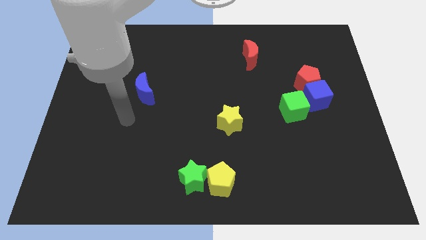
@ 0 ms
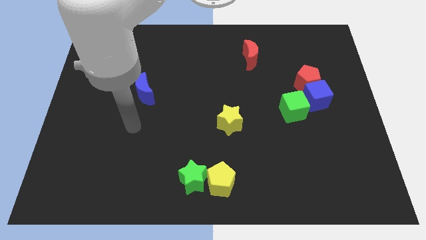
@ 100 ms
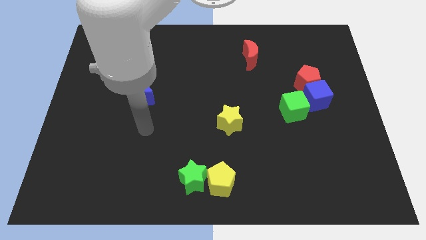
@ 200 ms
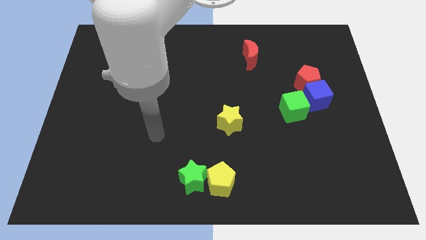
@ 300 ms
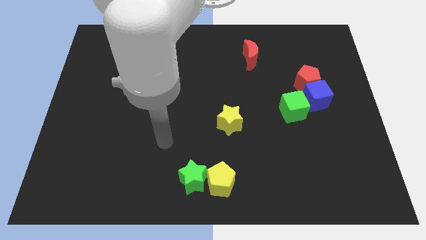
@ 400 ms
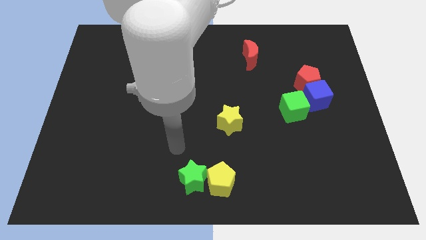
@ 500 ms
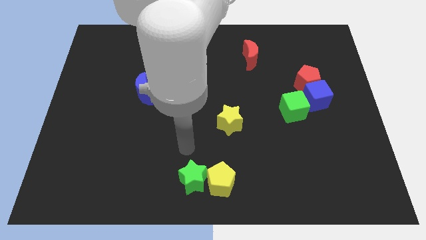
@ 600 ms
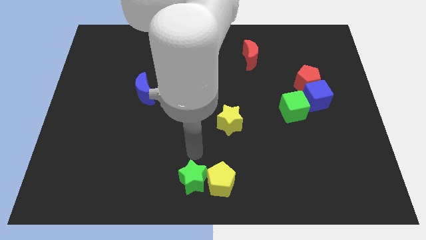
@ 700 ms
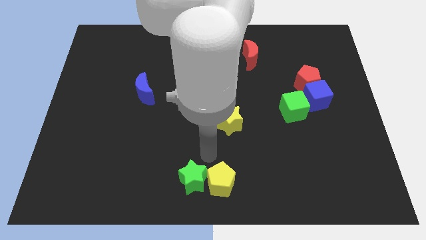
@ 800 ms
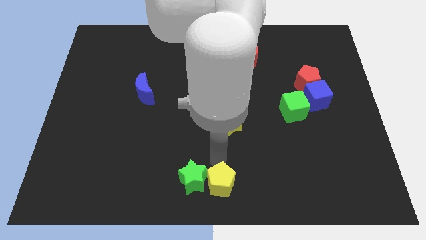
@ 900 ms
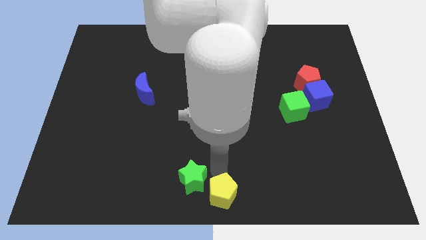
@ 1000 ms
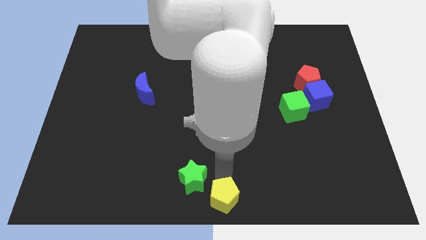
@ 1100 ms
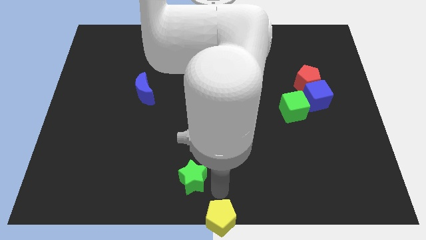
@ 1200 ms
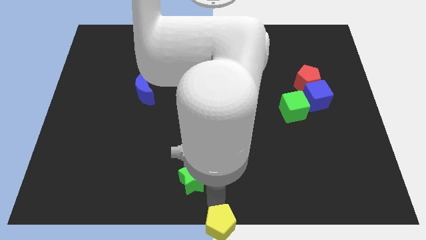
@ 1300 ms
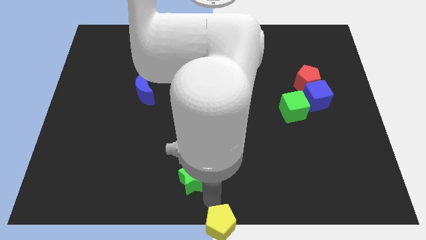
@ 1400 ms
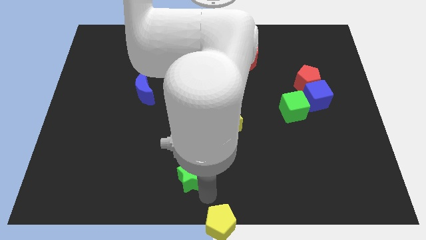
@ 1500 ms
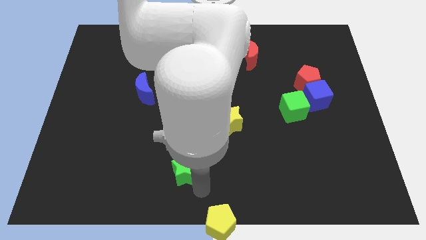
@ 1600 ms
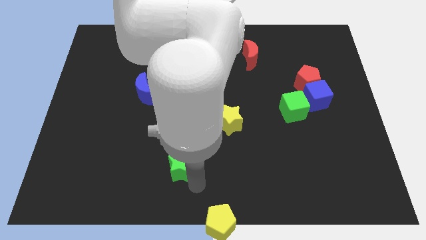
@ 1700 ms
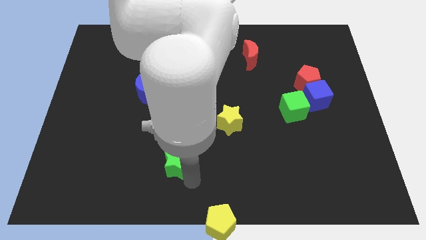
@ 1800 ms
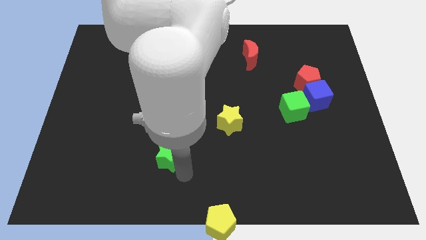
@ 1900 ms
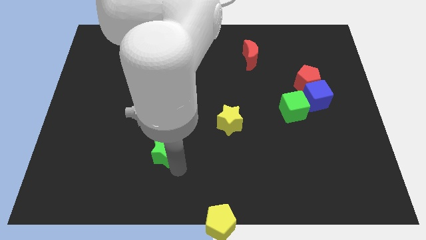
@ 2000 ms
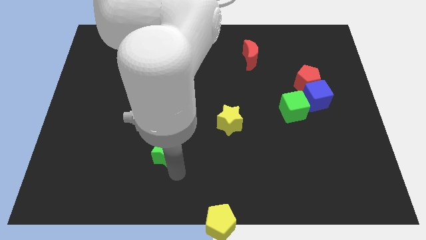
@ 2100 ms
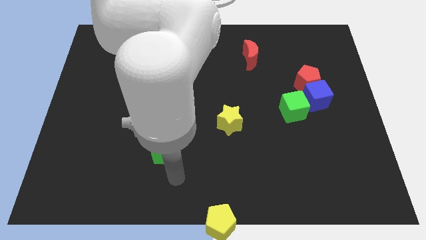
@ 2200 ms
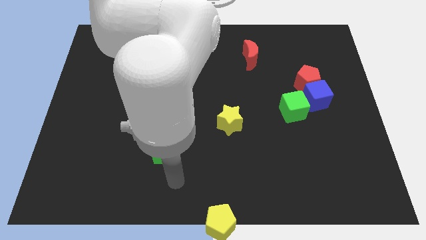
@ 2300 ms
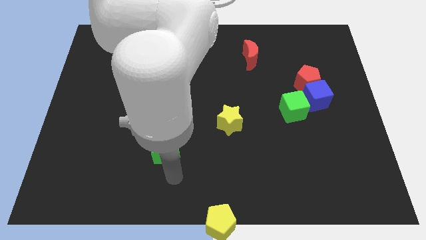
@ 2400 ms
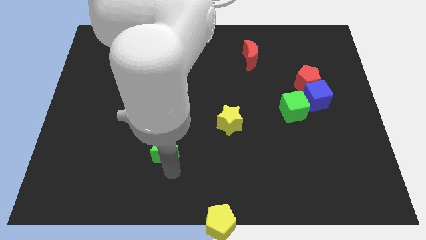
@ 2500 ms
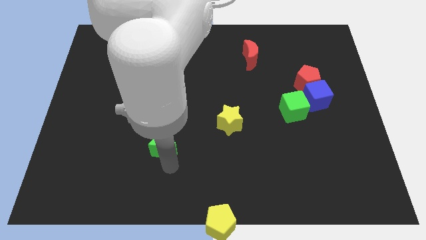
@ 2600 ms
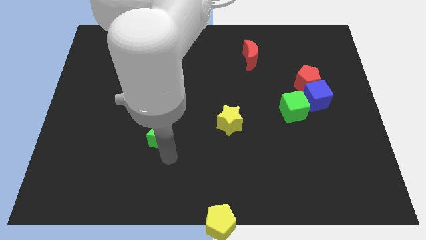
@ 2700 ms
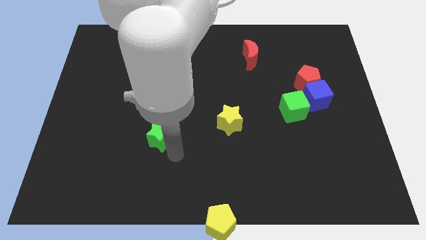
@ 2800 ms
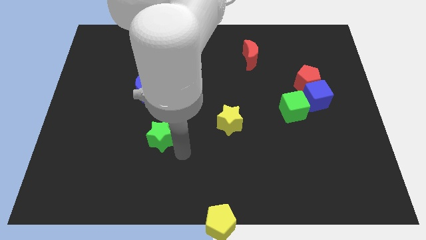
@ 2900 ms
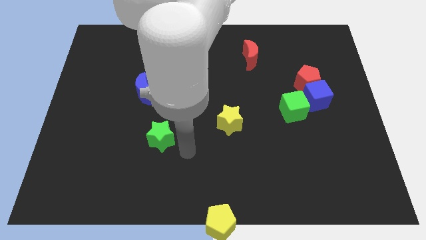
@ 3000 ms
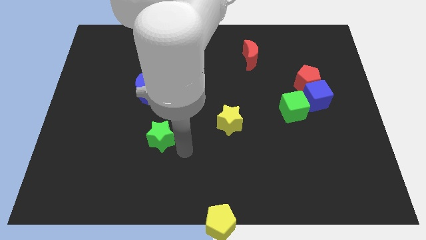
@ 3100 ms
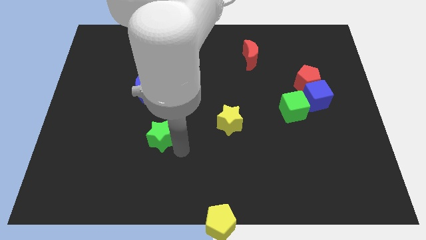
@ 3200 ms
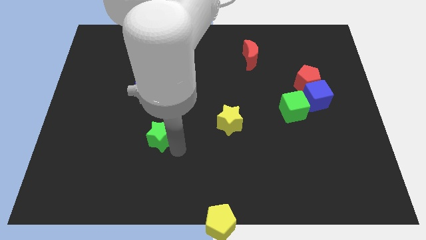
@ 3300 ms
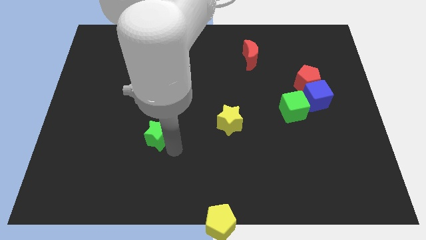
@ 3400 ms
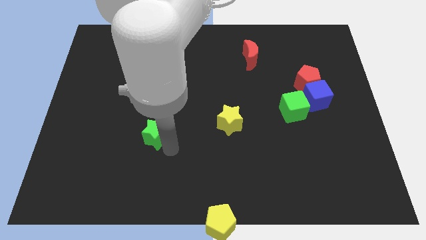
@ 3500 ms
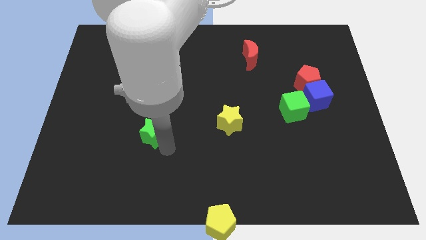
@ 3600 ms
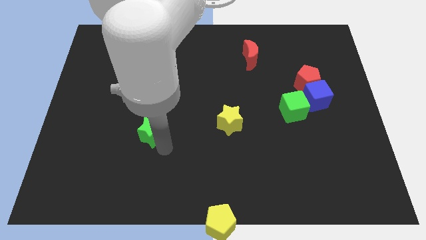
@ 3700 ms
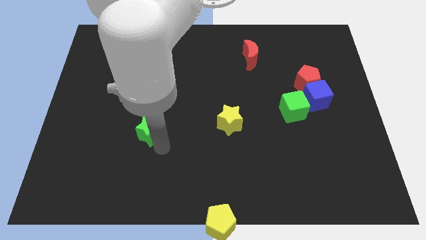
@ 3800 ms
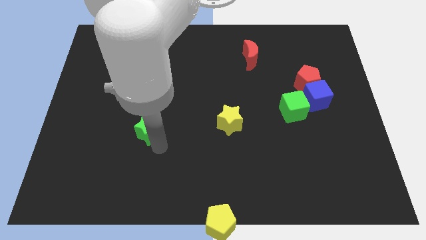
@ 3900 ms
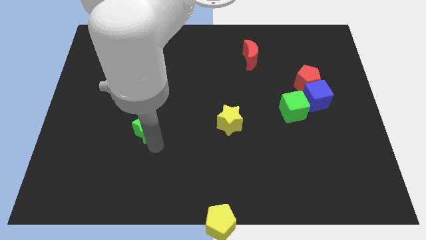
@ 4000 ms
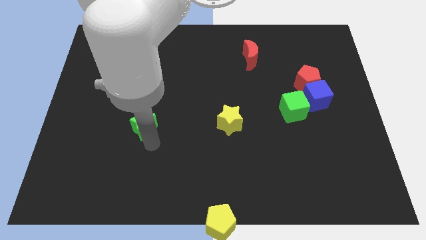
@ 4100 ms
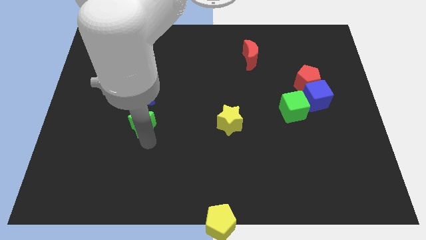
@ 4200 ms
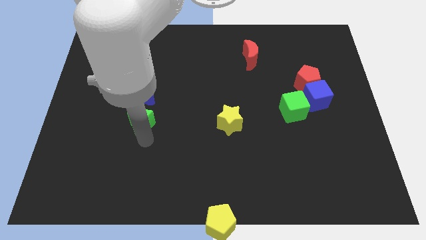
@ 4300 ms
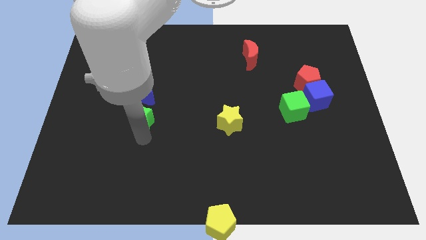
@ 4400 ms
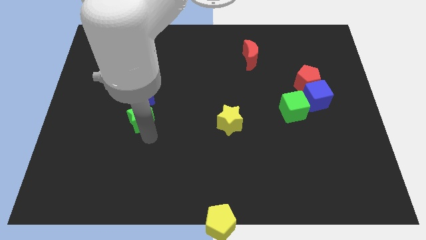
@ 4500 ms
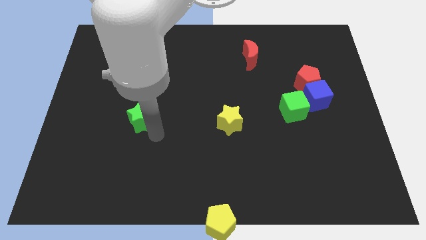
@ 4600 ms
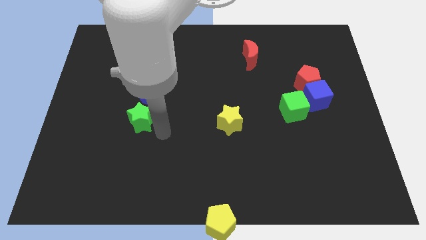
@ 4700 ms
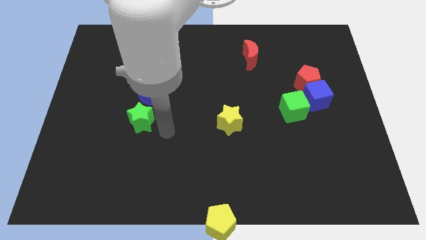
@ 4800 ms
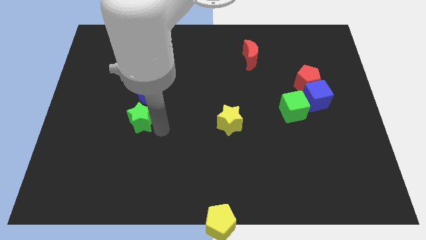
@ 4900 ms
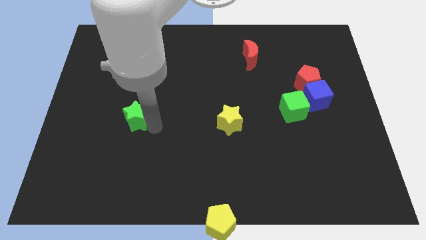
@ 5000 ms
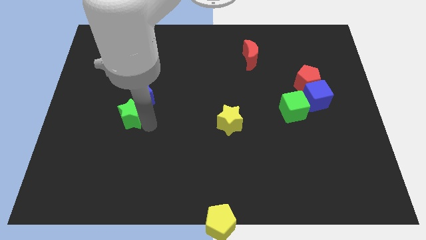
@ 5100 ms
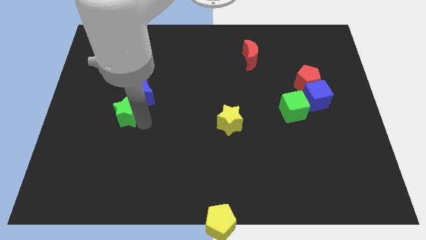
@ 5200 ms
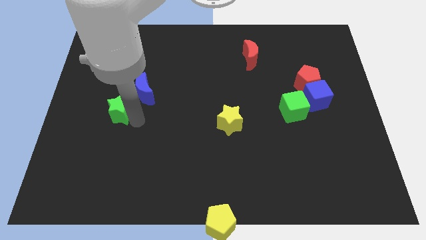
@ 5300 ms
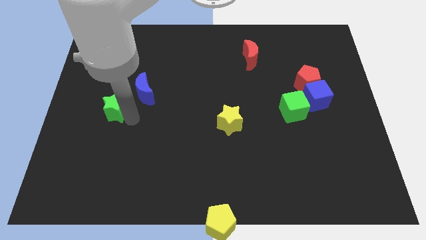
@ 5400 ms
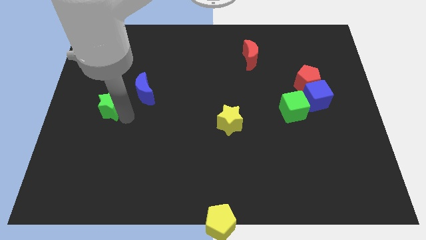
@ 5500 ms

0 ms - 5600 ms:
put the green star to the left of the blue moon

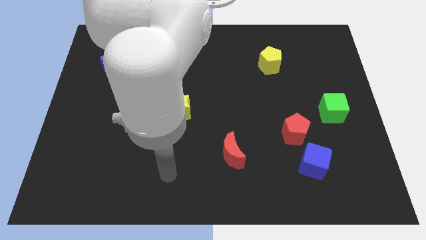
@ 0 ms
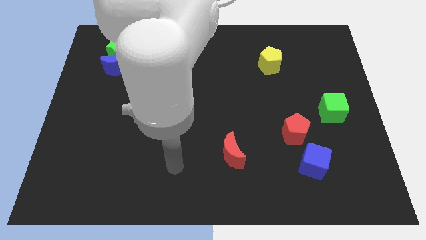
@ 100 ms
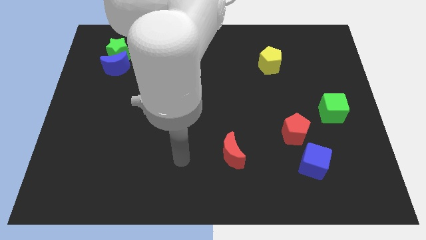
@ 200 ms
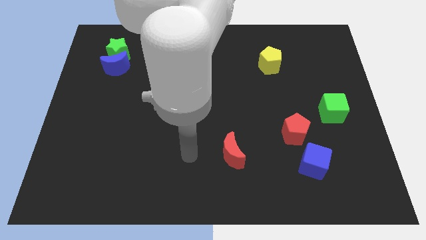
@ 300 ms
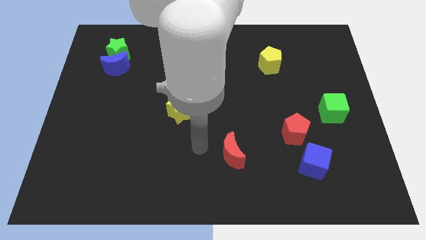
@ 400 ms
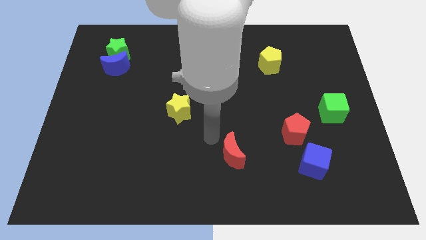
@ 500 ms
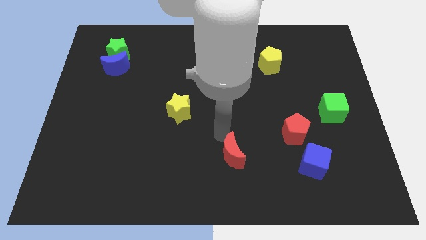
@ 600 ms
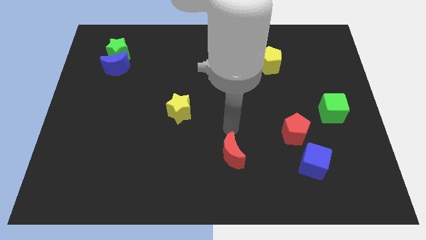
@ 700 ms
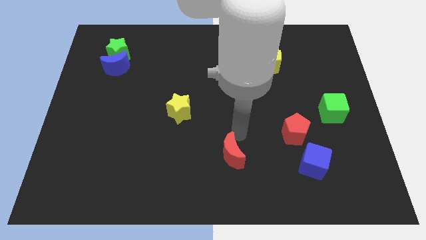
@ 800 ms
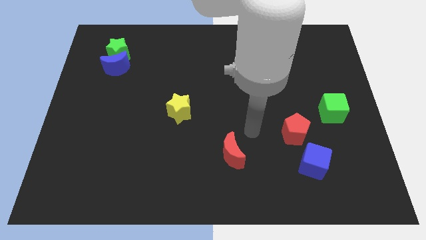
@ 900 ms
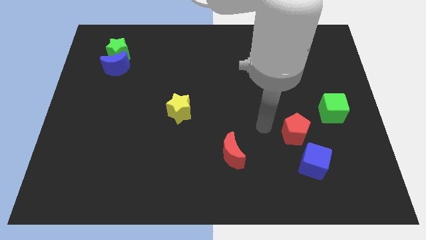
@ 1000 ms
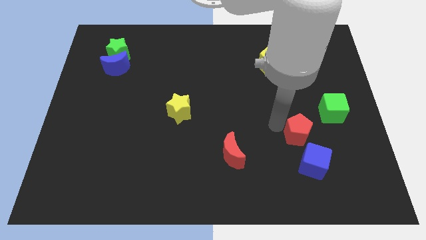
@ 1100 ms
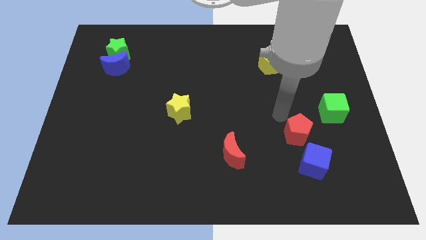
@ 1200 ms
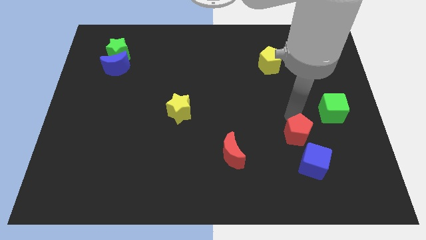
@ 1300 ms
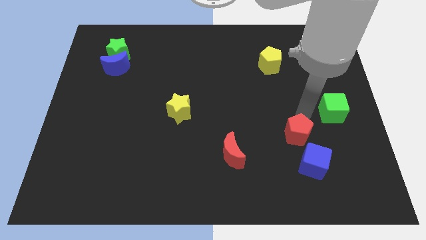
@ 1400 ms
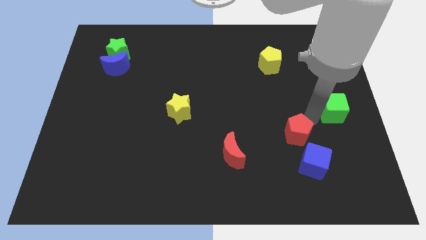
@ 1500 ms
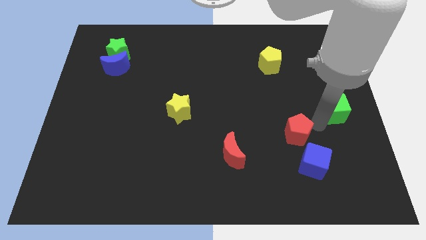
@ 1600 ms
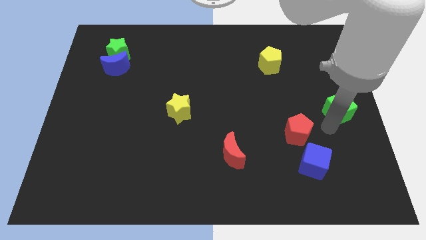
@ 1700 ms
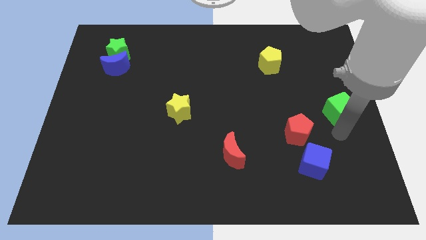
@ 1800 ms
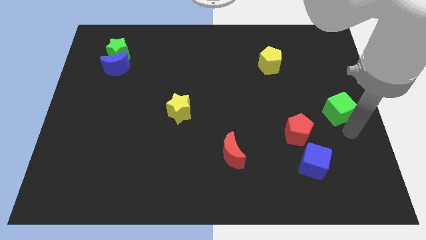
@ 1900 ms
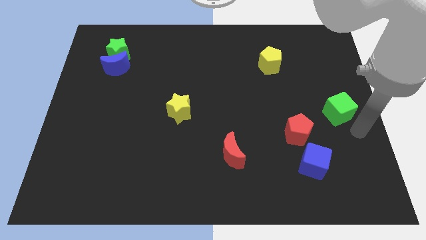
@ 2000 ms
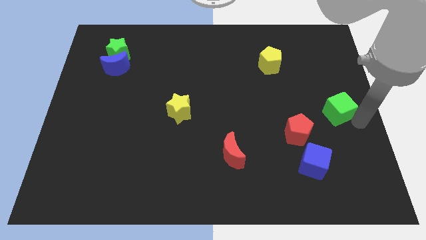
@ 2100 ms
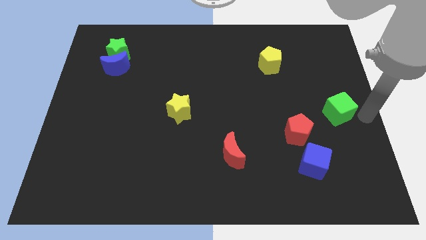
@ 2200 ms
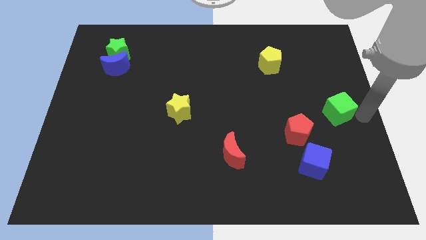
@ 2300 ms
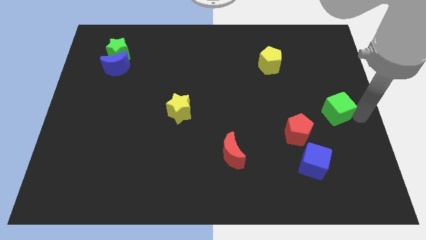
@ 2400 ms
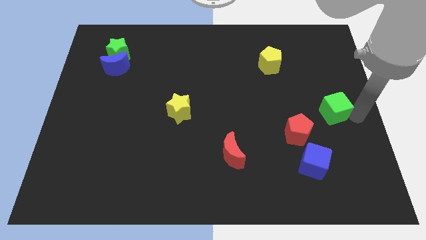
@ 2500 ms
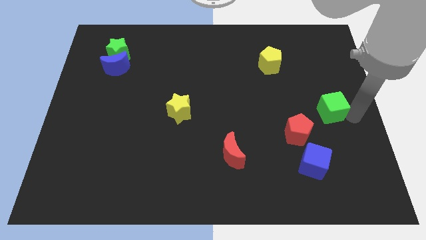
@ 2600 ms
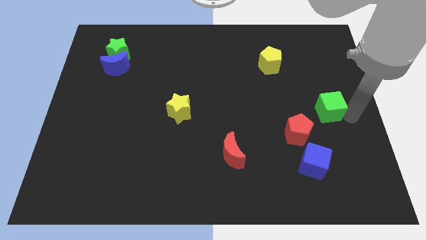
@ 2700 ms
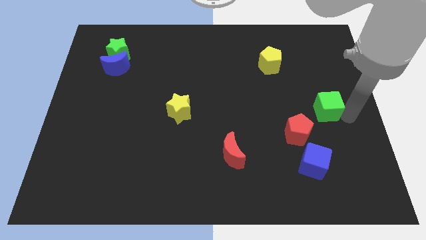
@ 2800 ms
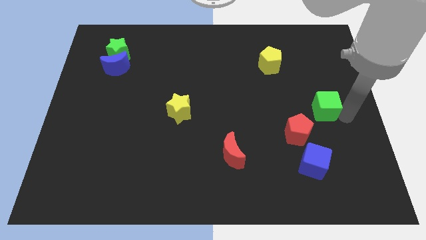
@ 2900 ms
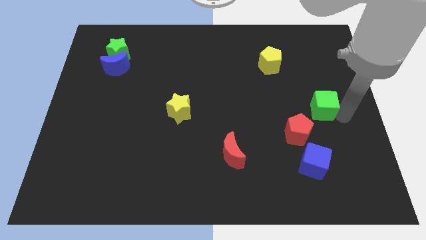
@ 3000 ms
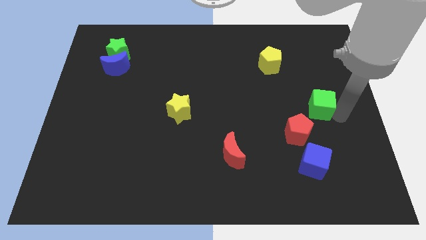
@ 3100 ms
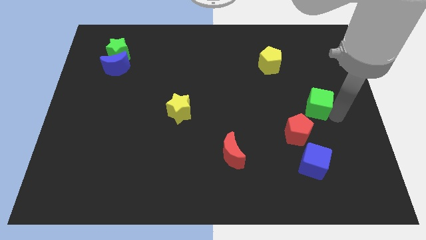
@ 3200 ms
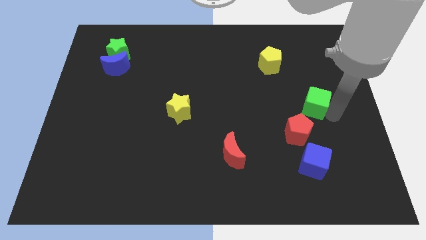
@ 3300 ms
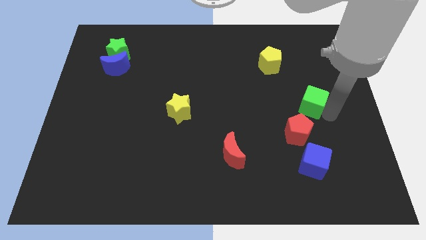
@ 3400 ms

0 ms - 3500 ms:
push the green cube above the red pentagon
